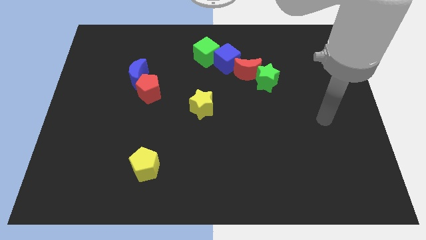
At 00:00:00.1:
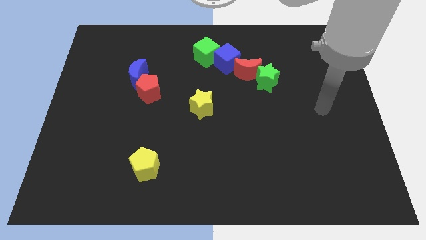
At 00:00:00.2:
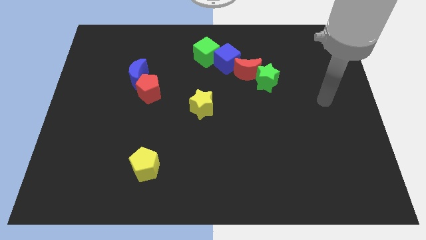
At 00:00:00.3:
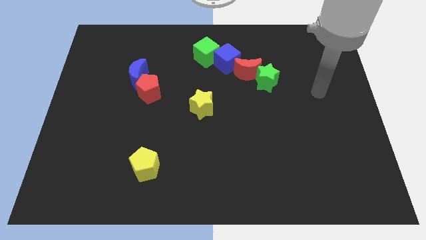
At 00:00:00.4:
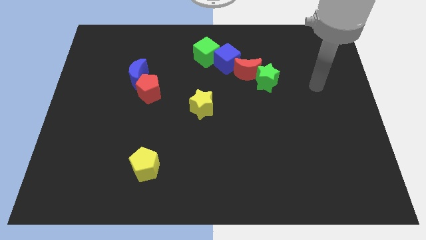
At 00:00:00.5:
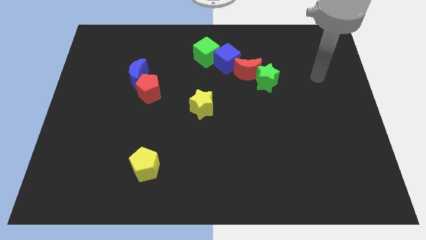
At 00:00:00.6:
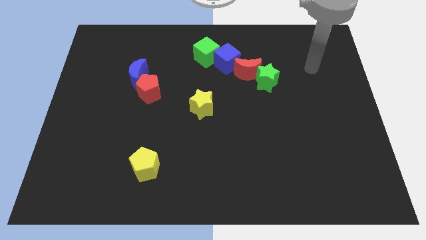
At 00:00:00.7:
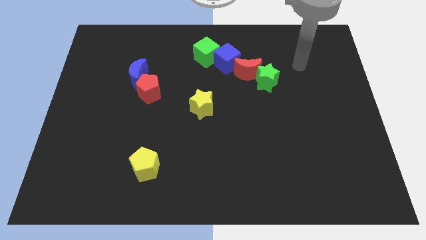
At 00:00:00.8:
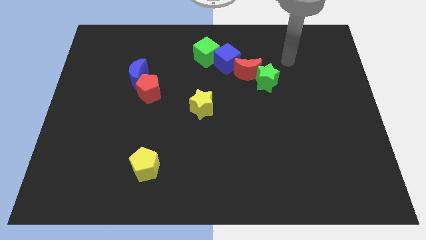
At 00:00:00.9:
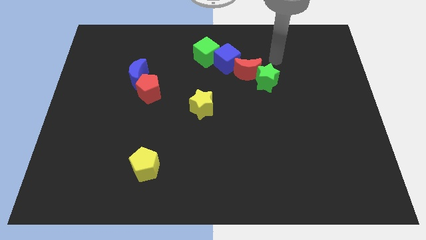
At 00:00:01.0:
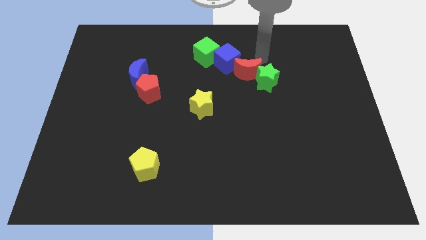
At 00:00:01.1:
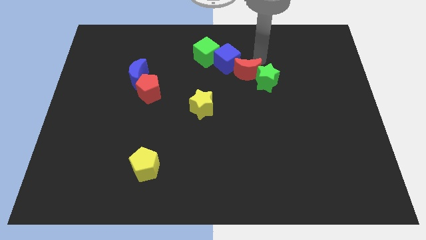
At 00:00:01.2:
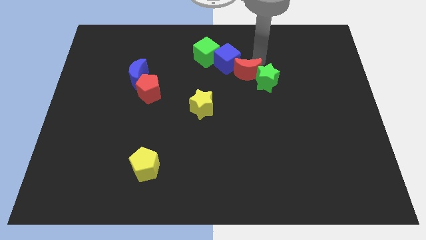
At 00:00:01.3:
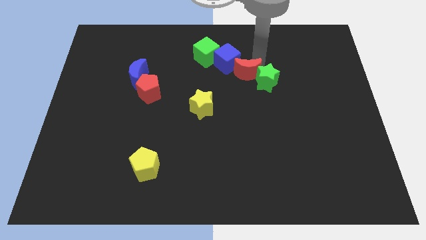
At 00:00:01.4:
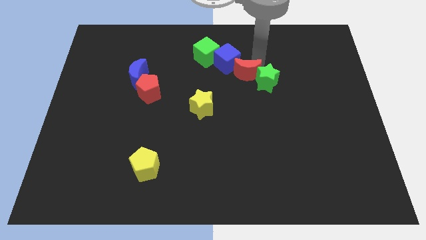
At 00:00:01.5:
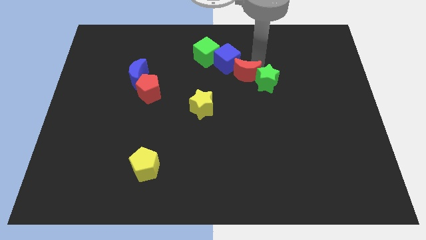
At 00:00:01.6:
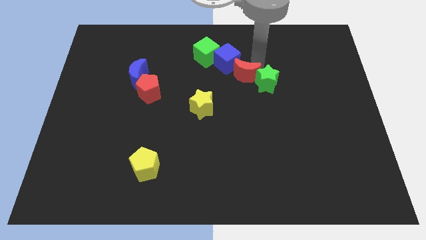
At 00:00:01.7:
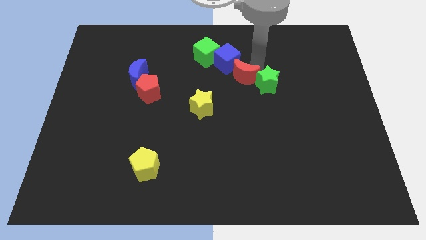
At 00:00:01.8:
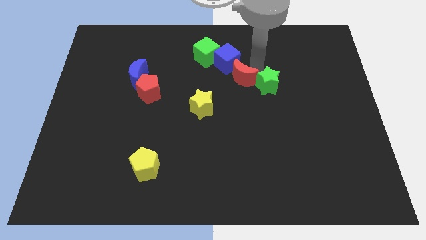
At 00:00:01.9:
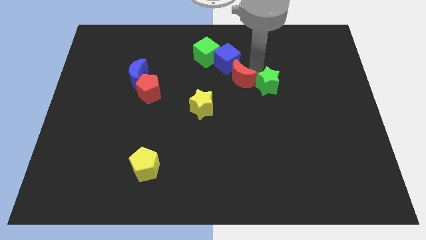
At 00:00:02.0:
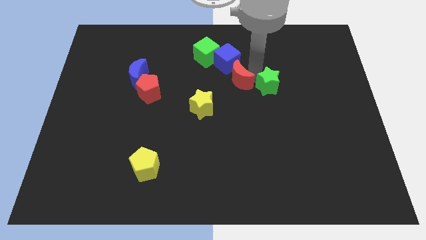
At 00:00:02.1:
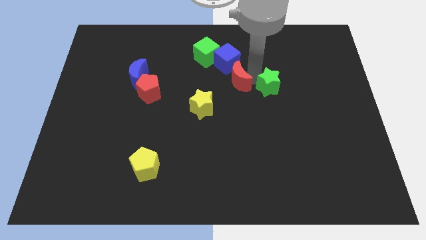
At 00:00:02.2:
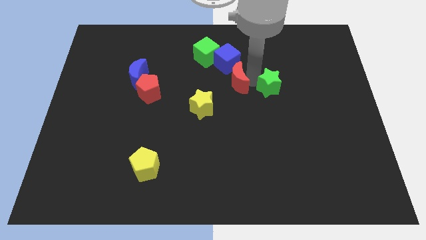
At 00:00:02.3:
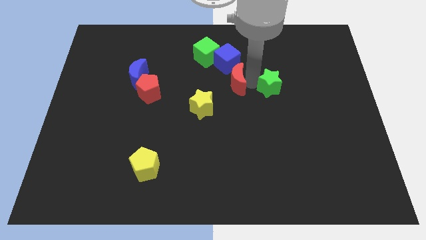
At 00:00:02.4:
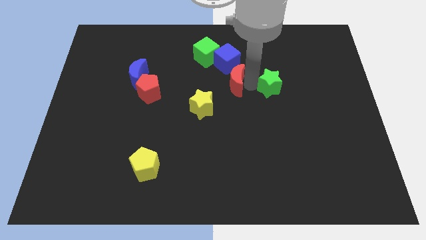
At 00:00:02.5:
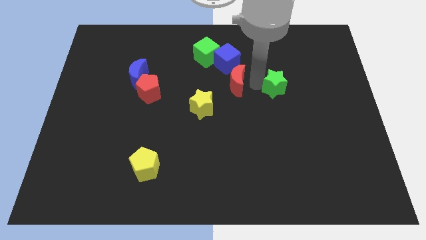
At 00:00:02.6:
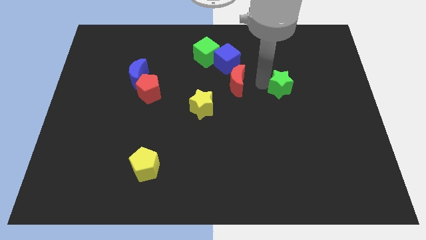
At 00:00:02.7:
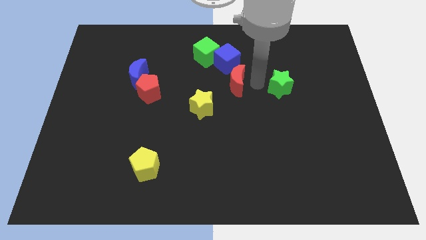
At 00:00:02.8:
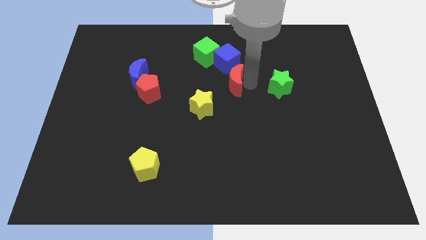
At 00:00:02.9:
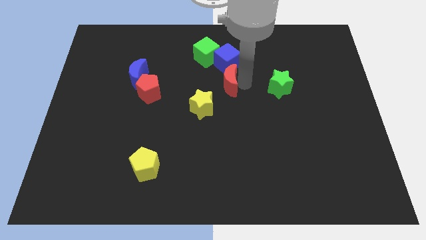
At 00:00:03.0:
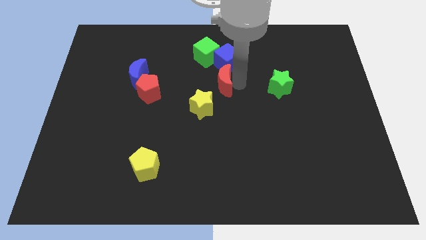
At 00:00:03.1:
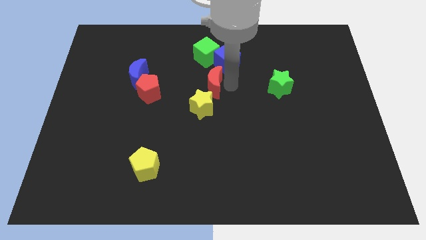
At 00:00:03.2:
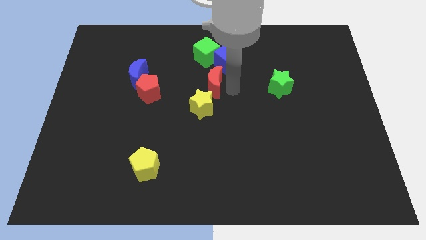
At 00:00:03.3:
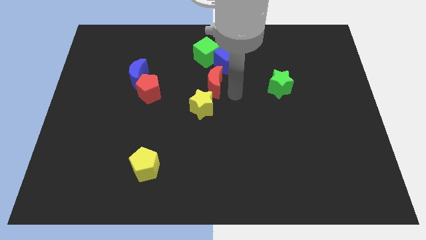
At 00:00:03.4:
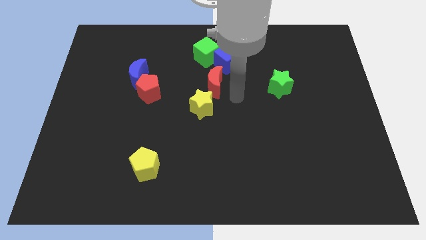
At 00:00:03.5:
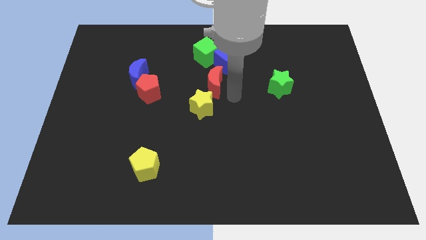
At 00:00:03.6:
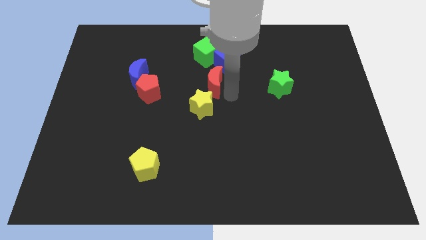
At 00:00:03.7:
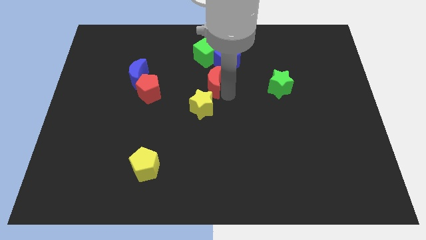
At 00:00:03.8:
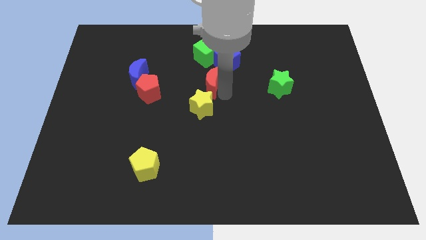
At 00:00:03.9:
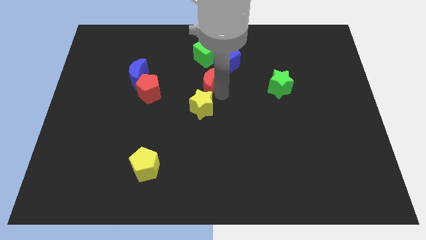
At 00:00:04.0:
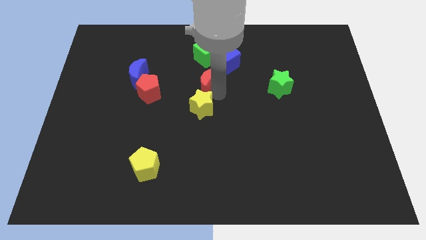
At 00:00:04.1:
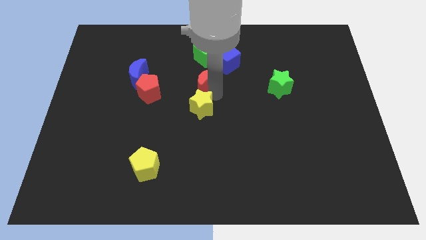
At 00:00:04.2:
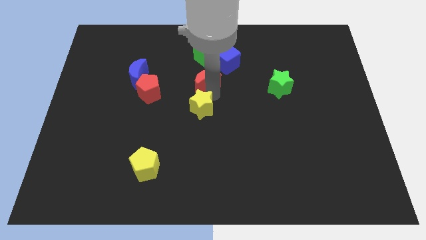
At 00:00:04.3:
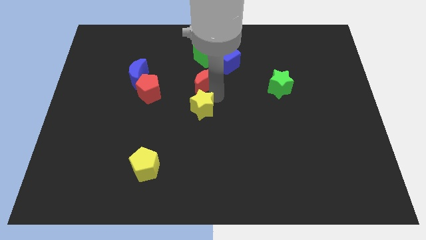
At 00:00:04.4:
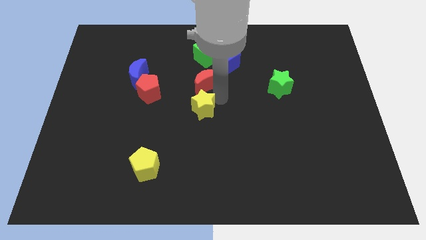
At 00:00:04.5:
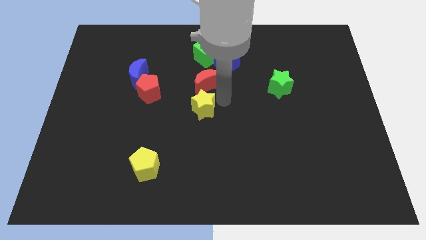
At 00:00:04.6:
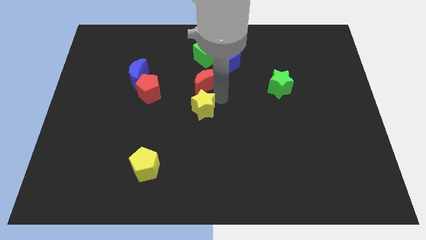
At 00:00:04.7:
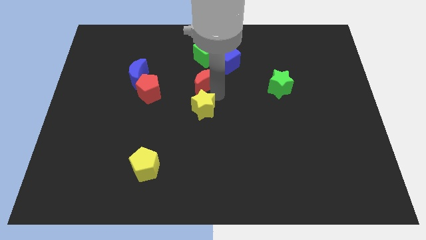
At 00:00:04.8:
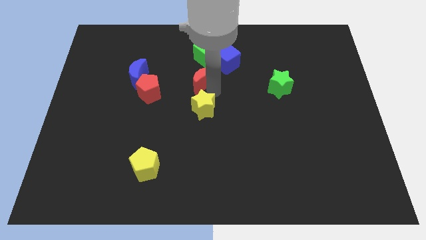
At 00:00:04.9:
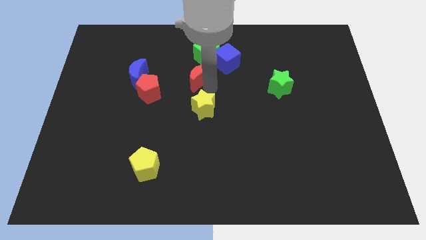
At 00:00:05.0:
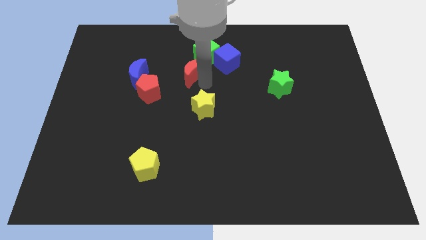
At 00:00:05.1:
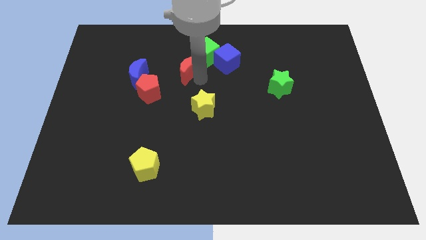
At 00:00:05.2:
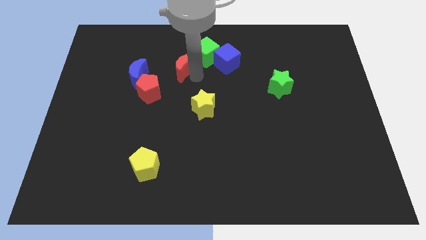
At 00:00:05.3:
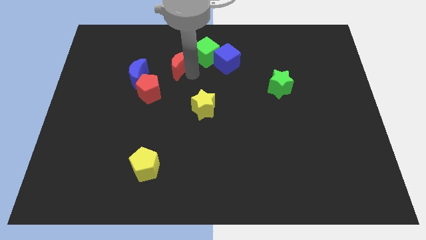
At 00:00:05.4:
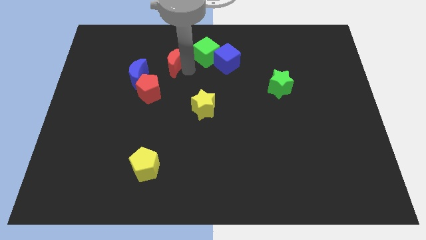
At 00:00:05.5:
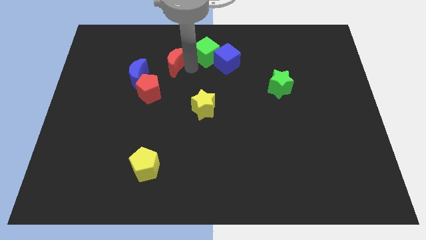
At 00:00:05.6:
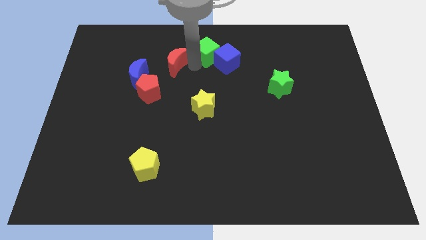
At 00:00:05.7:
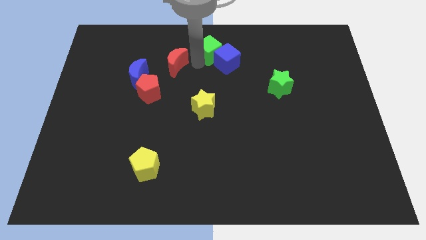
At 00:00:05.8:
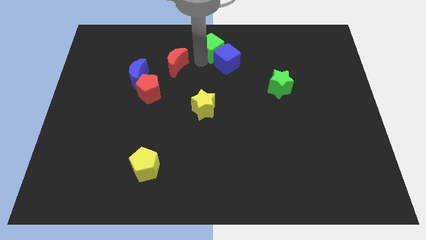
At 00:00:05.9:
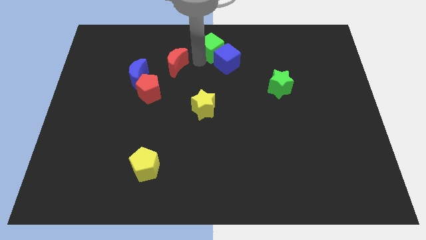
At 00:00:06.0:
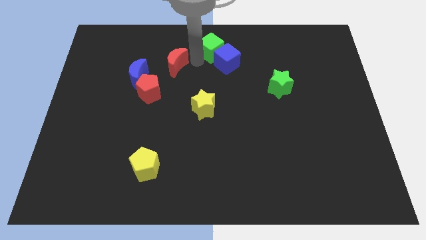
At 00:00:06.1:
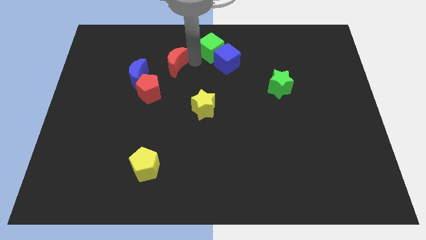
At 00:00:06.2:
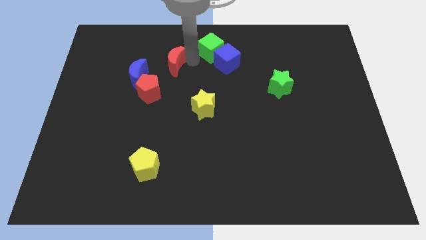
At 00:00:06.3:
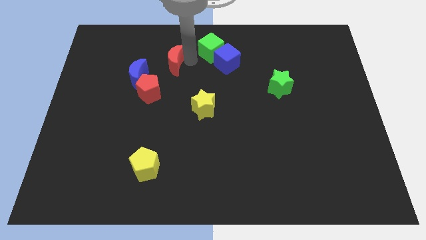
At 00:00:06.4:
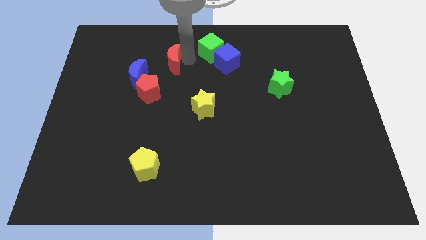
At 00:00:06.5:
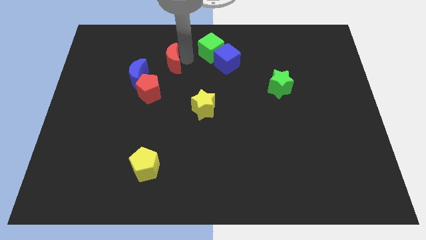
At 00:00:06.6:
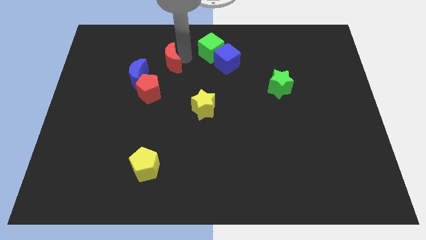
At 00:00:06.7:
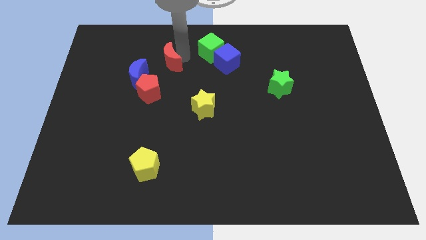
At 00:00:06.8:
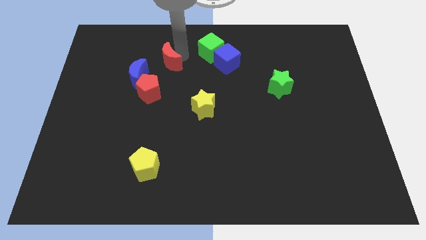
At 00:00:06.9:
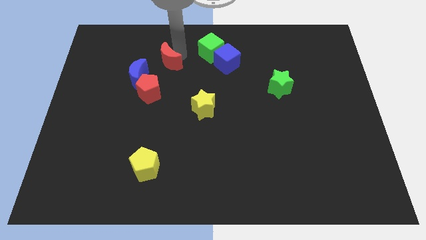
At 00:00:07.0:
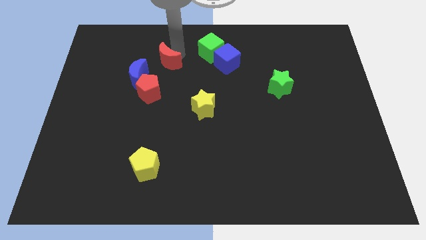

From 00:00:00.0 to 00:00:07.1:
push the red moon to the left

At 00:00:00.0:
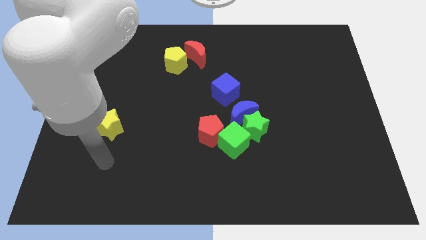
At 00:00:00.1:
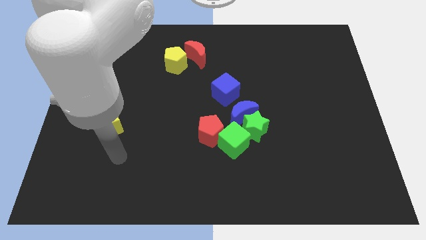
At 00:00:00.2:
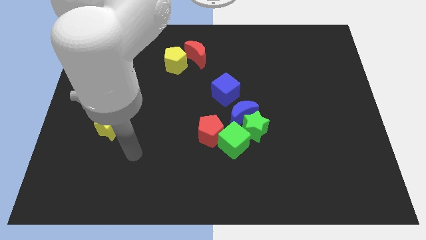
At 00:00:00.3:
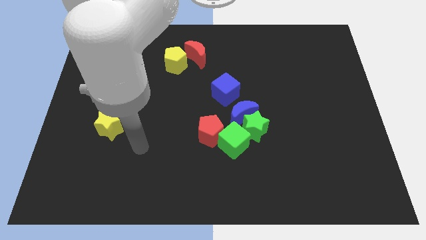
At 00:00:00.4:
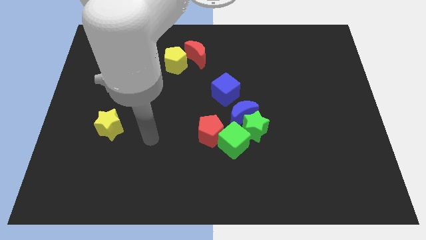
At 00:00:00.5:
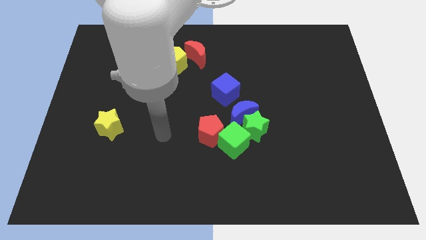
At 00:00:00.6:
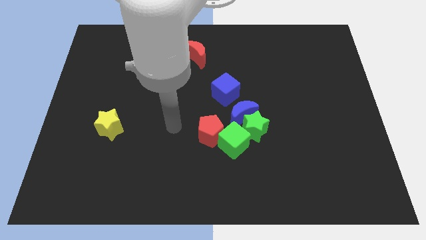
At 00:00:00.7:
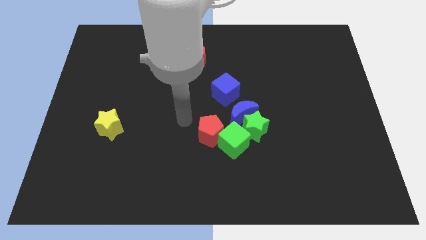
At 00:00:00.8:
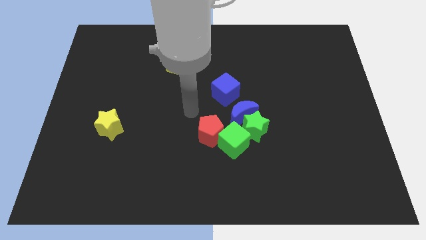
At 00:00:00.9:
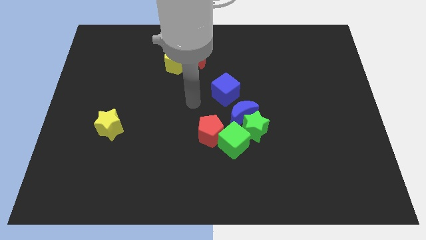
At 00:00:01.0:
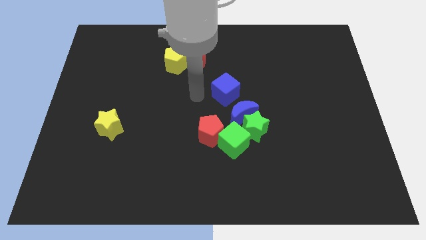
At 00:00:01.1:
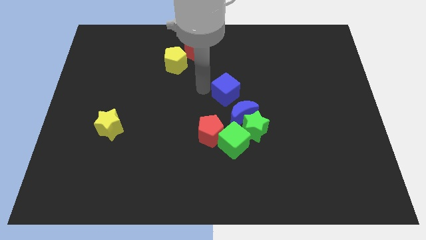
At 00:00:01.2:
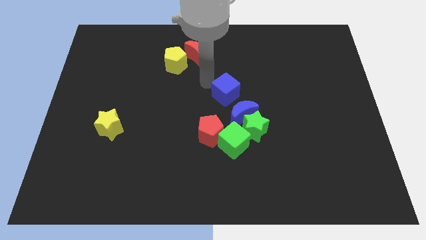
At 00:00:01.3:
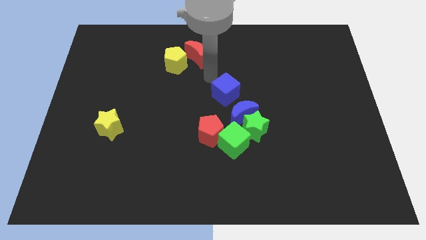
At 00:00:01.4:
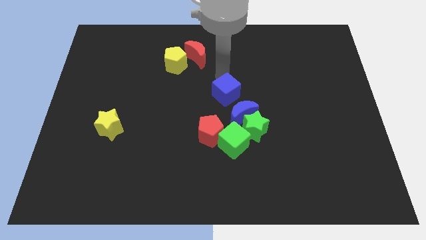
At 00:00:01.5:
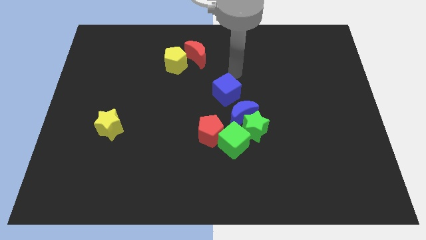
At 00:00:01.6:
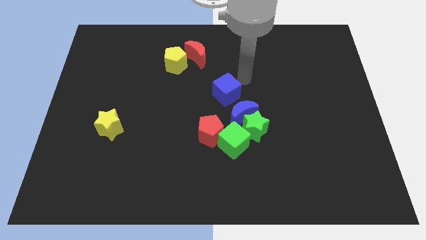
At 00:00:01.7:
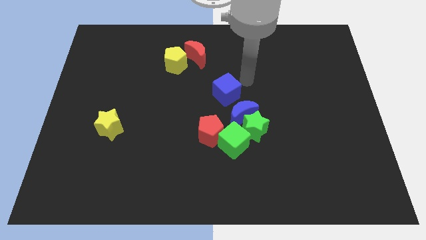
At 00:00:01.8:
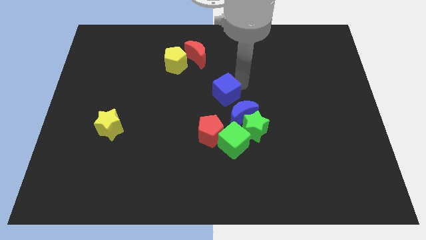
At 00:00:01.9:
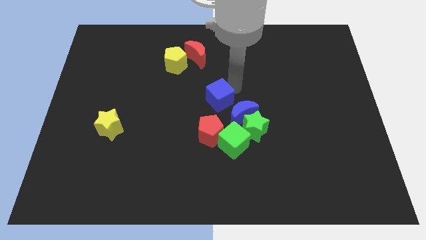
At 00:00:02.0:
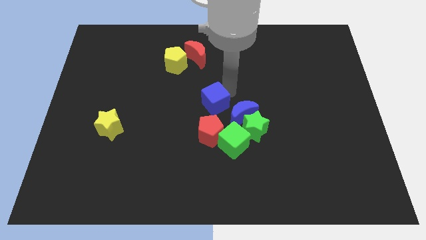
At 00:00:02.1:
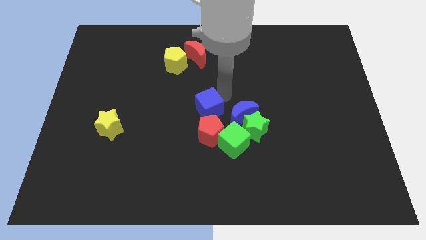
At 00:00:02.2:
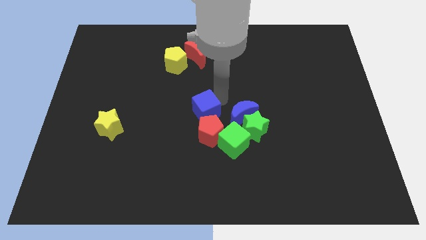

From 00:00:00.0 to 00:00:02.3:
slightly slide the blue cube diagonally down and to the left
